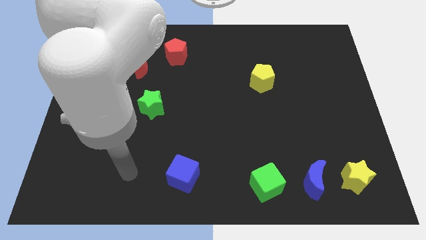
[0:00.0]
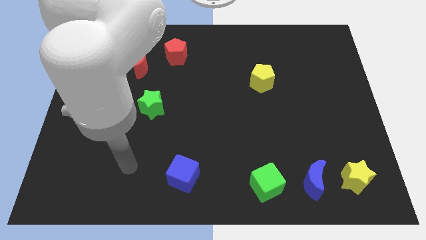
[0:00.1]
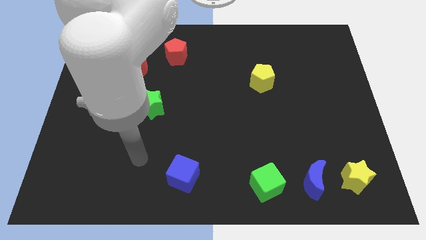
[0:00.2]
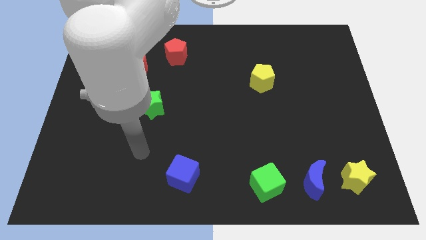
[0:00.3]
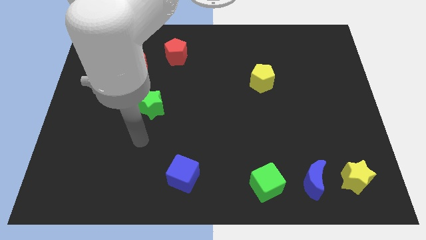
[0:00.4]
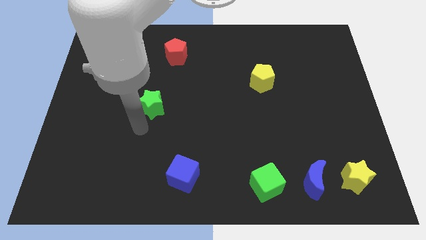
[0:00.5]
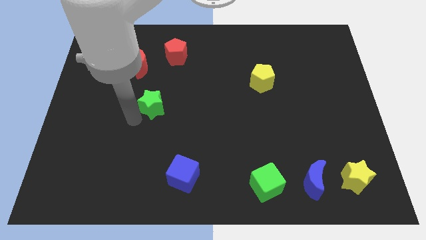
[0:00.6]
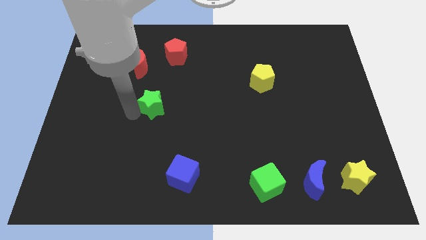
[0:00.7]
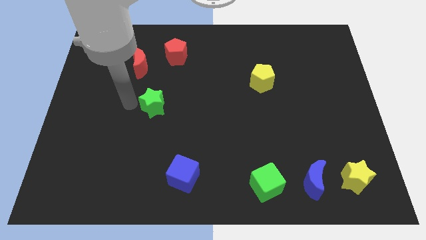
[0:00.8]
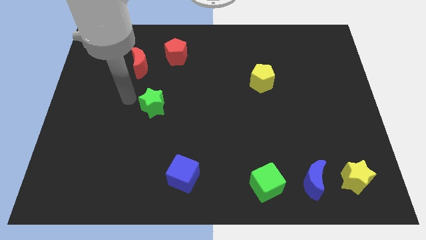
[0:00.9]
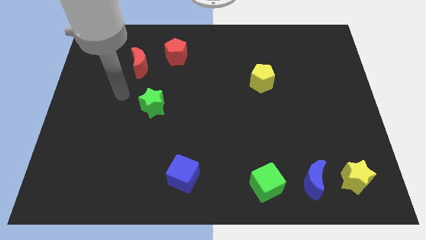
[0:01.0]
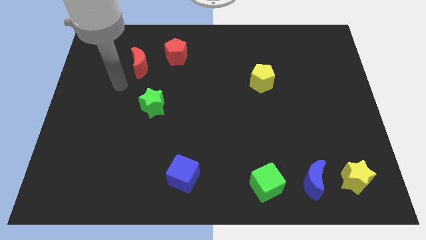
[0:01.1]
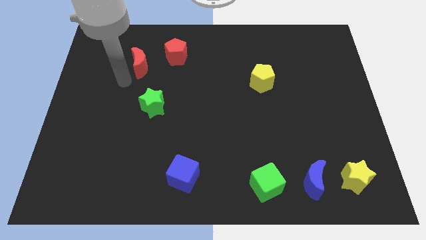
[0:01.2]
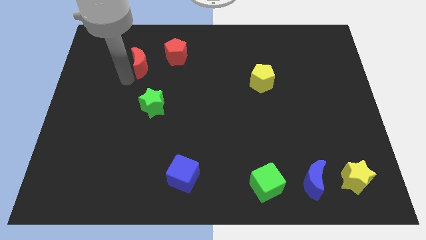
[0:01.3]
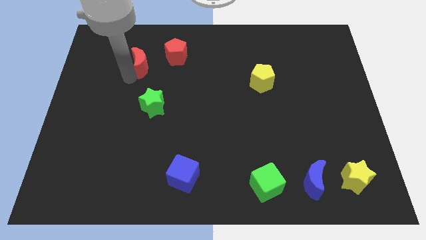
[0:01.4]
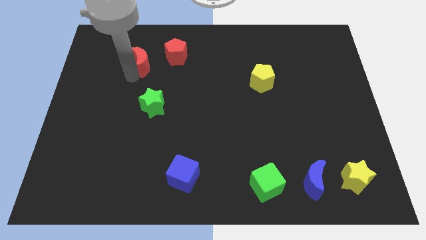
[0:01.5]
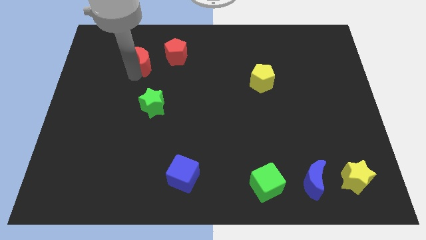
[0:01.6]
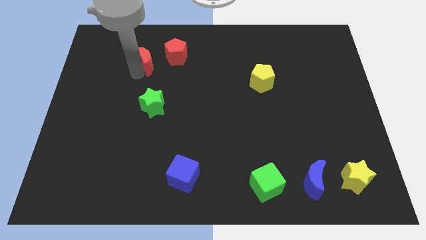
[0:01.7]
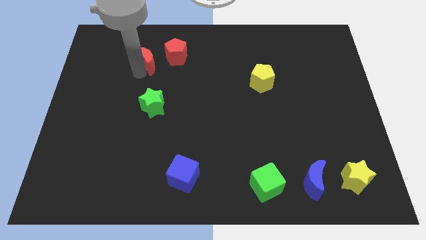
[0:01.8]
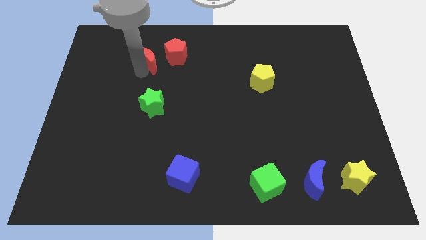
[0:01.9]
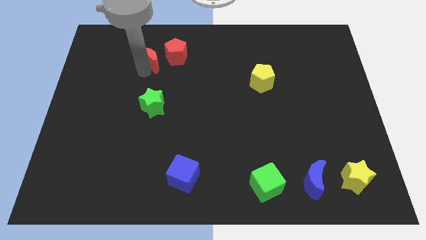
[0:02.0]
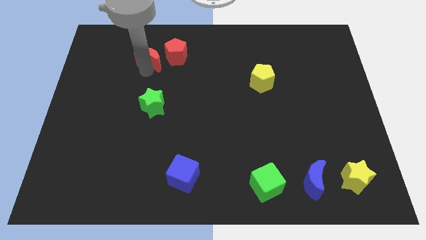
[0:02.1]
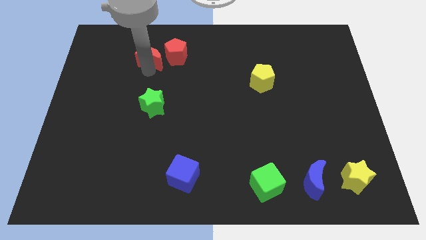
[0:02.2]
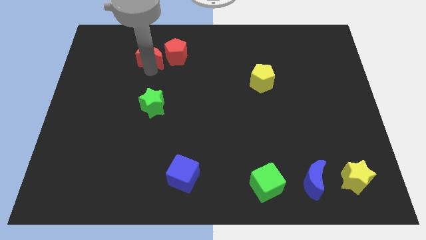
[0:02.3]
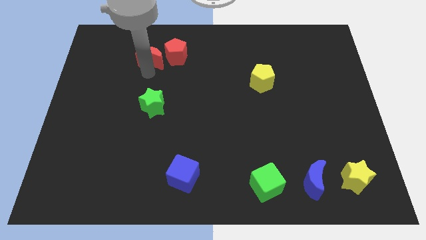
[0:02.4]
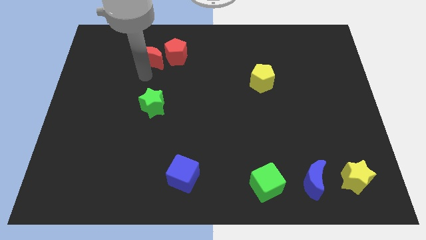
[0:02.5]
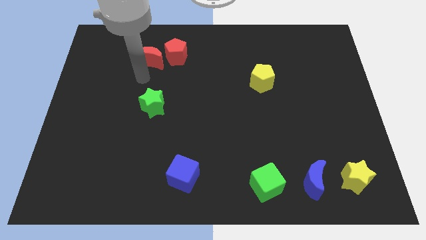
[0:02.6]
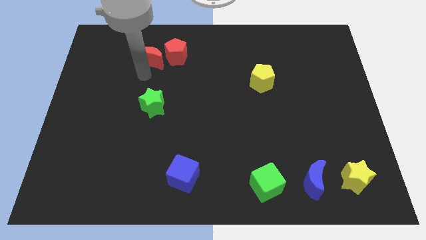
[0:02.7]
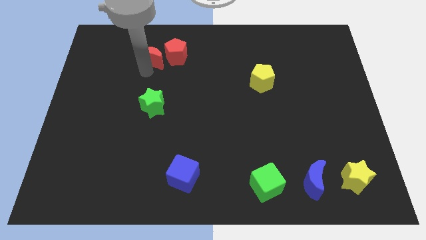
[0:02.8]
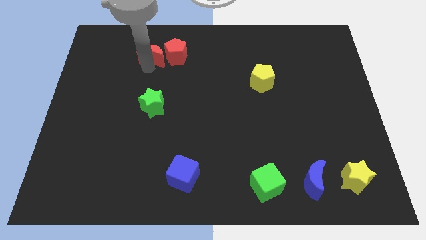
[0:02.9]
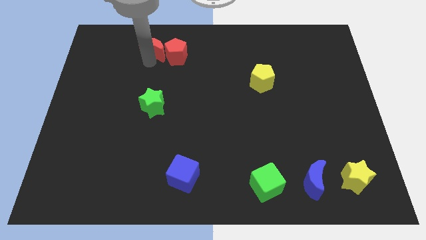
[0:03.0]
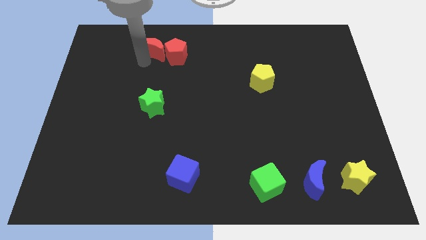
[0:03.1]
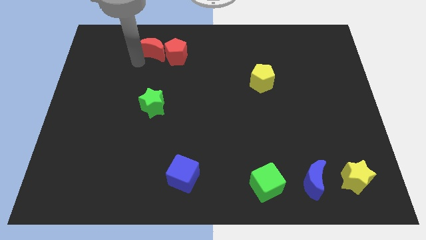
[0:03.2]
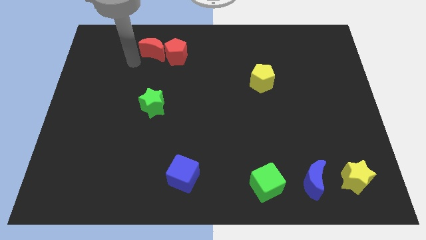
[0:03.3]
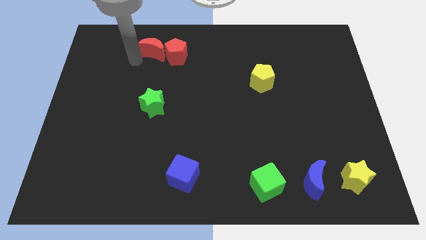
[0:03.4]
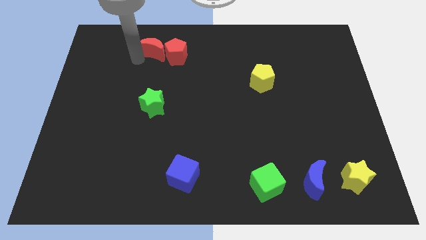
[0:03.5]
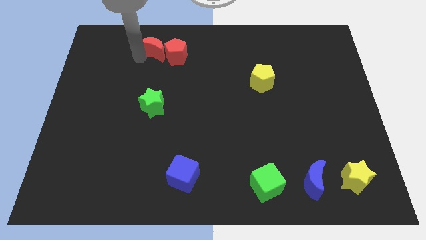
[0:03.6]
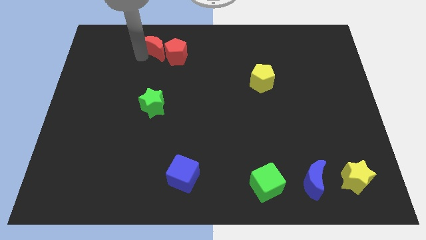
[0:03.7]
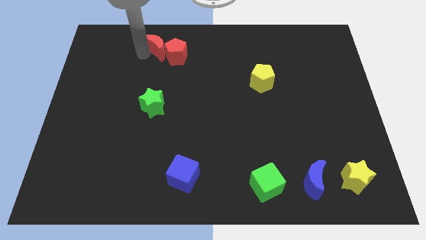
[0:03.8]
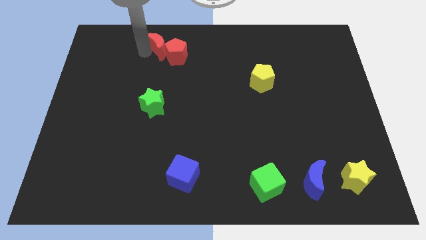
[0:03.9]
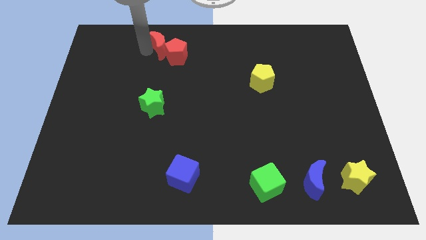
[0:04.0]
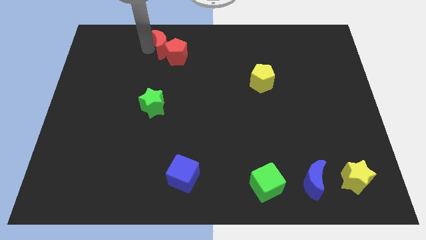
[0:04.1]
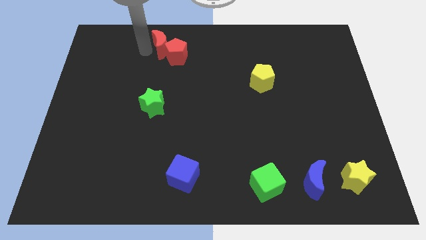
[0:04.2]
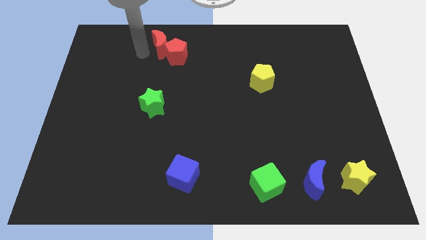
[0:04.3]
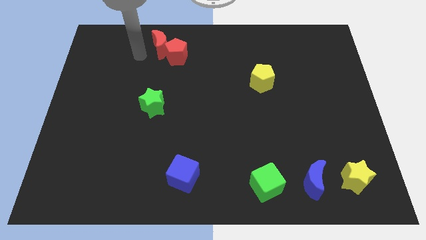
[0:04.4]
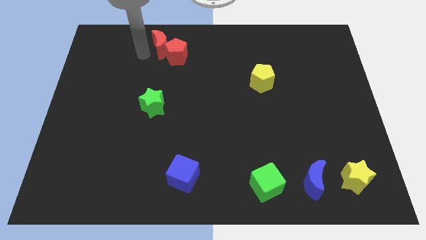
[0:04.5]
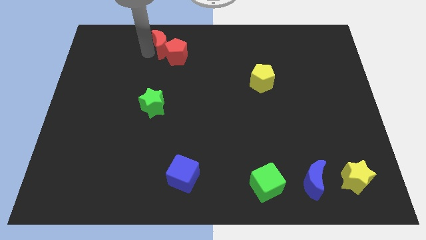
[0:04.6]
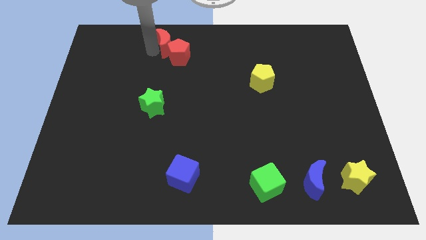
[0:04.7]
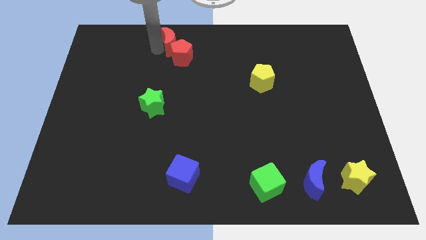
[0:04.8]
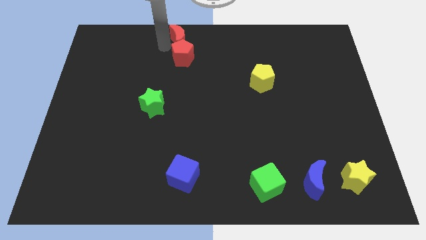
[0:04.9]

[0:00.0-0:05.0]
slide the red moon to the top side
